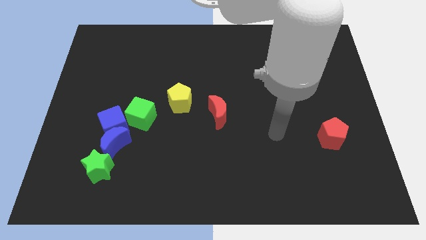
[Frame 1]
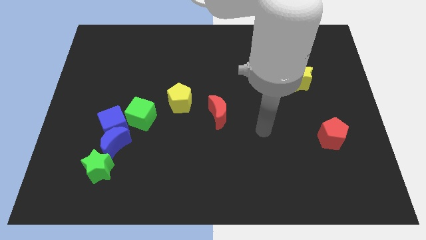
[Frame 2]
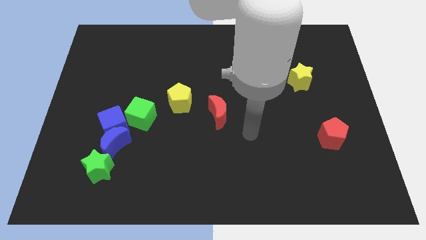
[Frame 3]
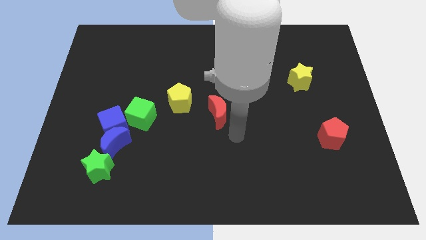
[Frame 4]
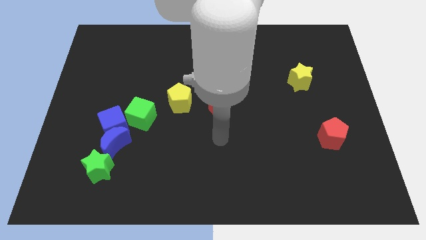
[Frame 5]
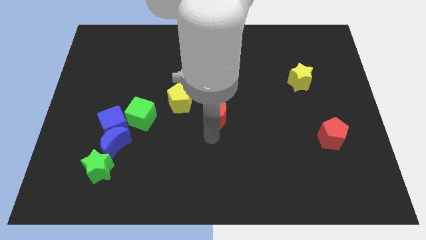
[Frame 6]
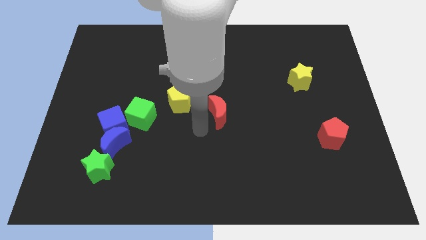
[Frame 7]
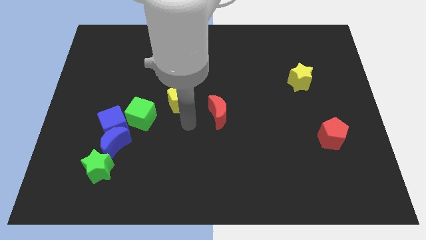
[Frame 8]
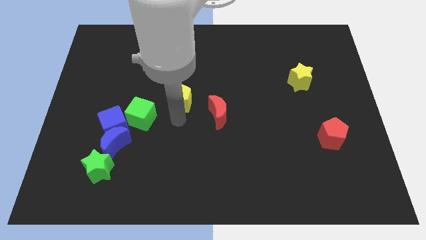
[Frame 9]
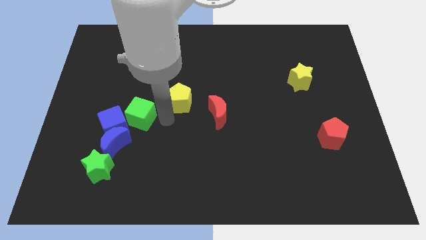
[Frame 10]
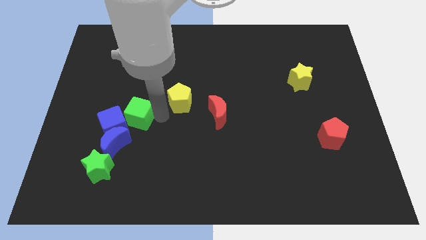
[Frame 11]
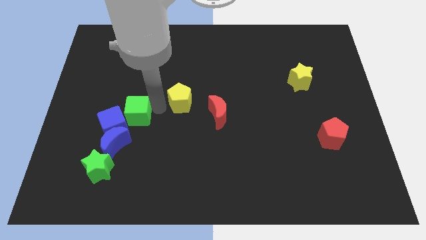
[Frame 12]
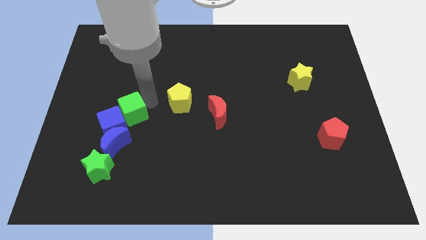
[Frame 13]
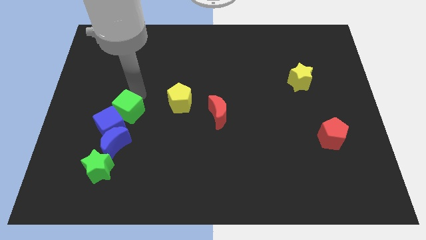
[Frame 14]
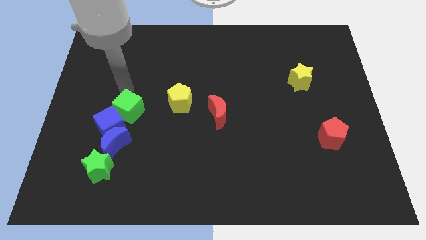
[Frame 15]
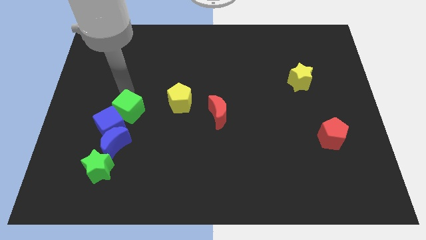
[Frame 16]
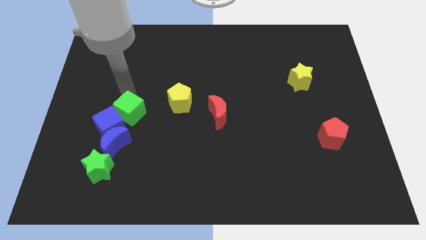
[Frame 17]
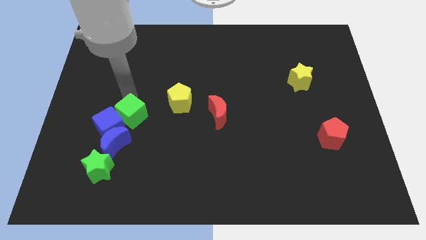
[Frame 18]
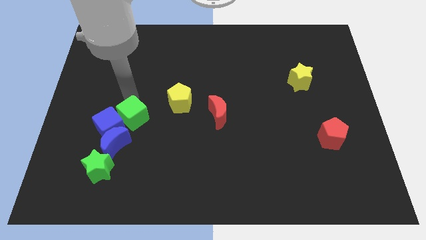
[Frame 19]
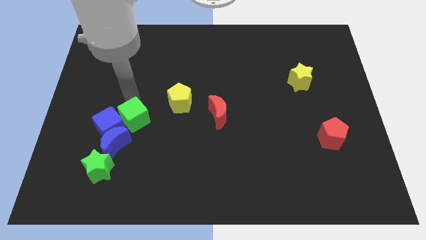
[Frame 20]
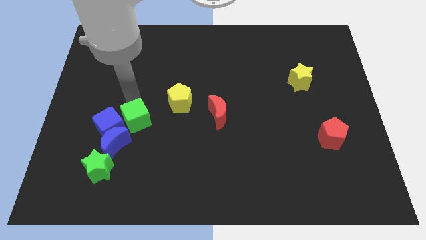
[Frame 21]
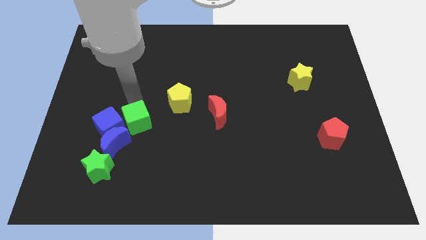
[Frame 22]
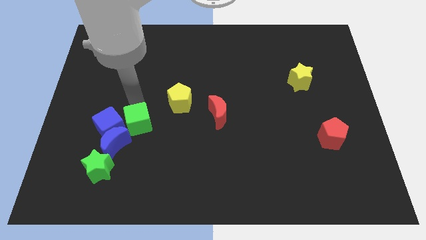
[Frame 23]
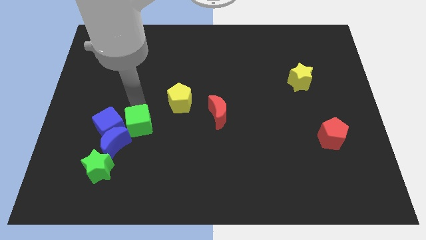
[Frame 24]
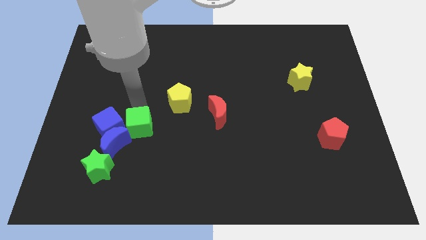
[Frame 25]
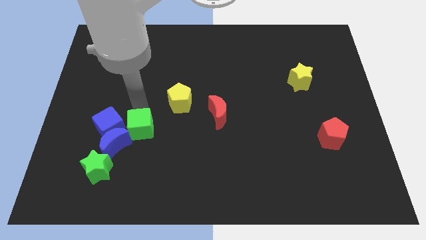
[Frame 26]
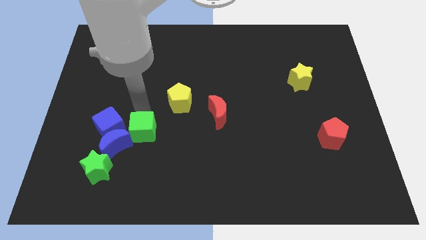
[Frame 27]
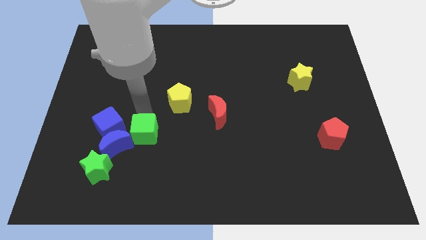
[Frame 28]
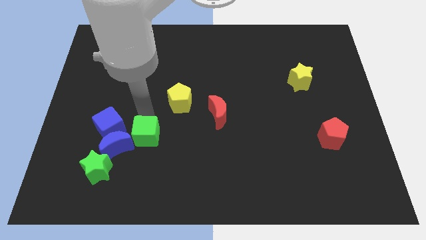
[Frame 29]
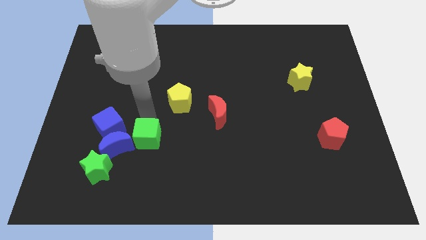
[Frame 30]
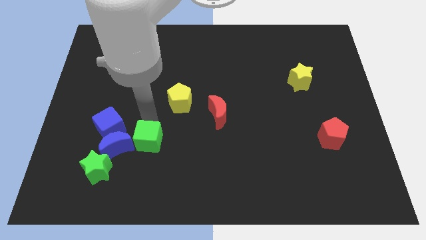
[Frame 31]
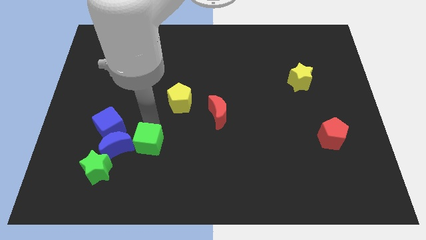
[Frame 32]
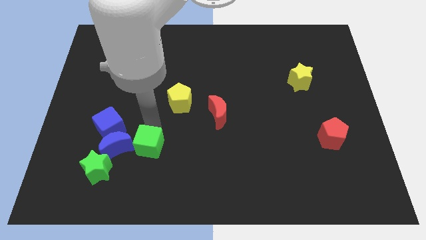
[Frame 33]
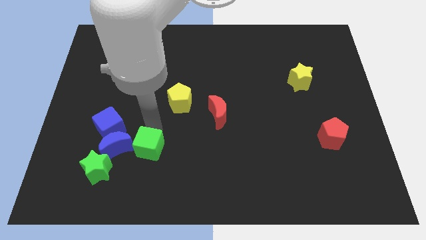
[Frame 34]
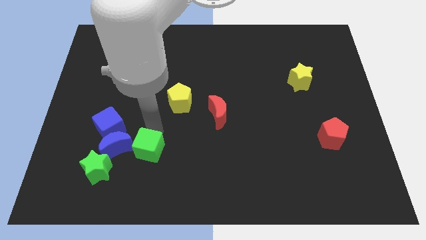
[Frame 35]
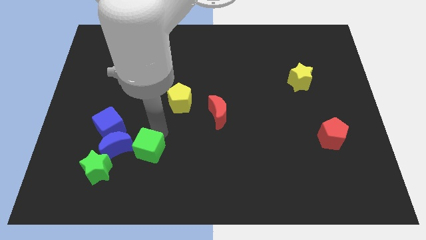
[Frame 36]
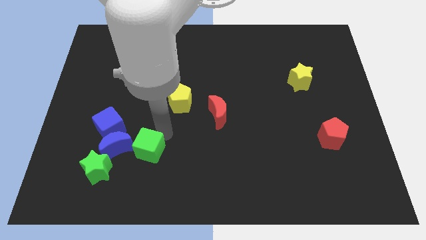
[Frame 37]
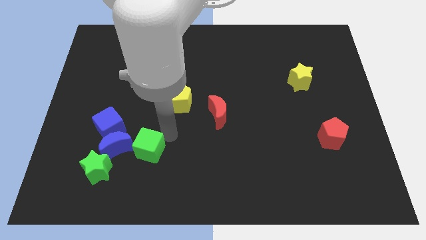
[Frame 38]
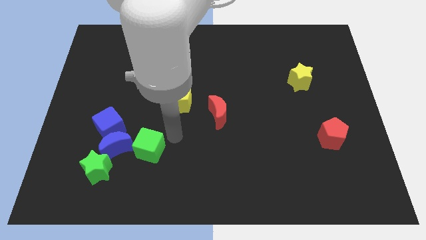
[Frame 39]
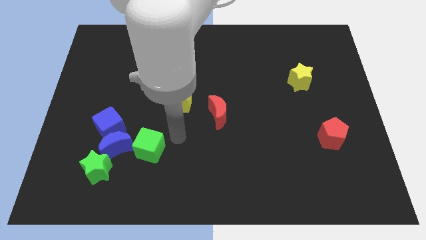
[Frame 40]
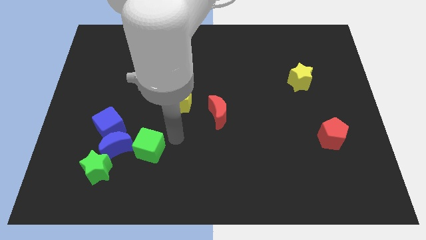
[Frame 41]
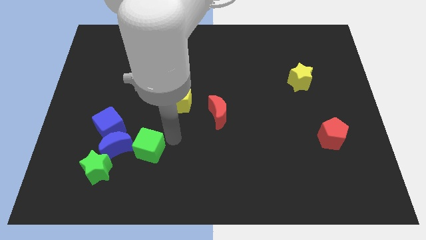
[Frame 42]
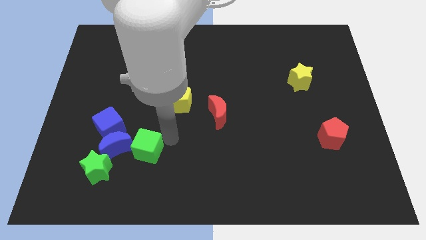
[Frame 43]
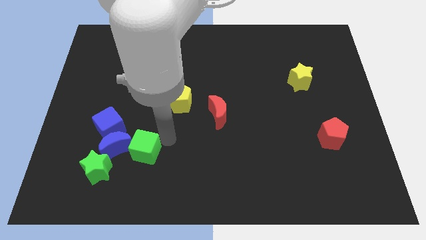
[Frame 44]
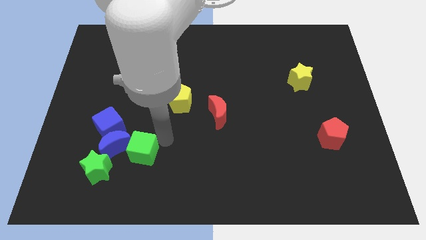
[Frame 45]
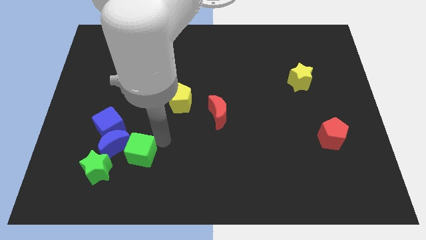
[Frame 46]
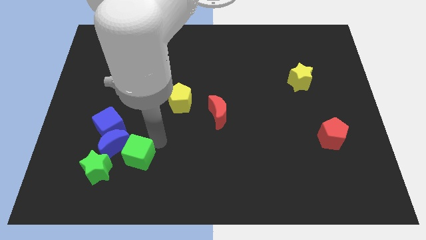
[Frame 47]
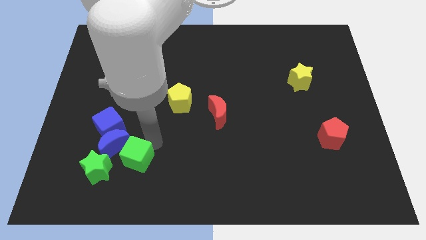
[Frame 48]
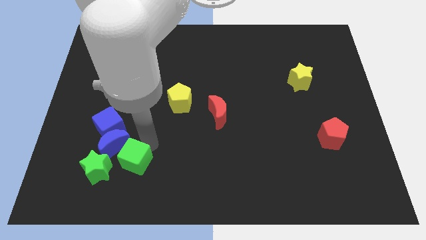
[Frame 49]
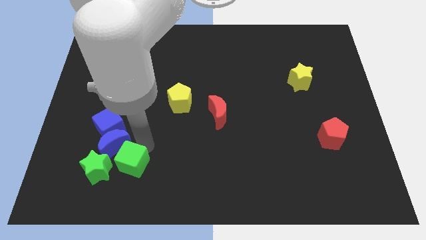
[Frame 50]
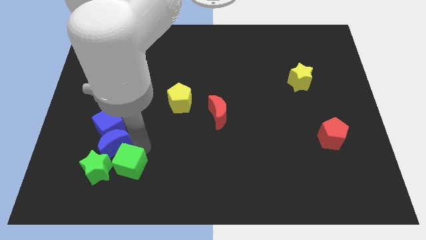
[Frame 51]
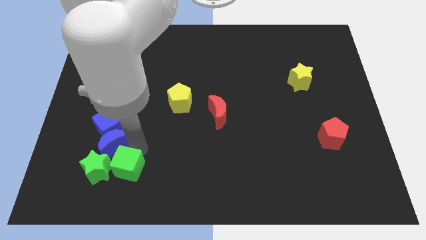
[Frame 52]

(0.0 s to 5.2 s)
put the green cube next to the green star

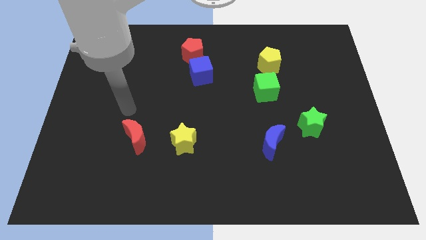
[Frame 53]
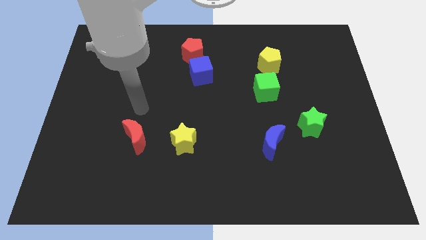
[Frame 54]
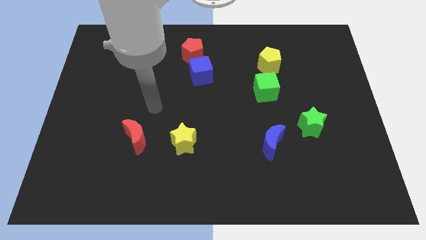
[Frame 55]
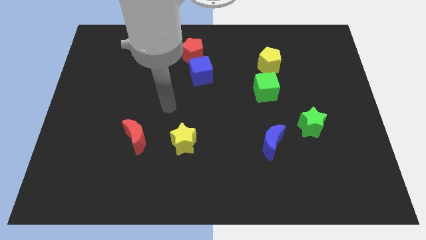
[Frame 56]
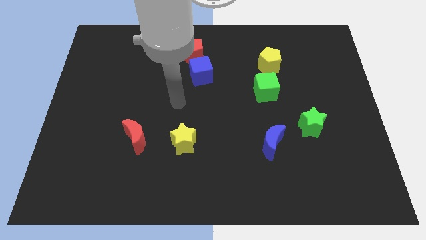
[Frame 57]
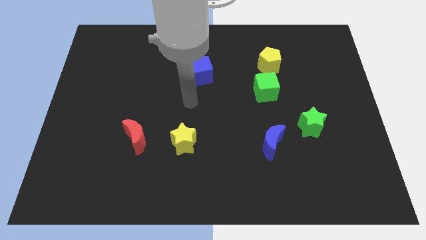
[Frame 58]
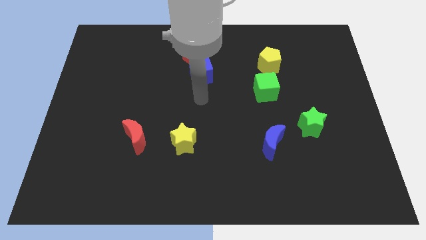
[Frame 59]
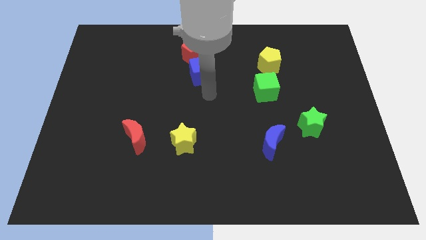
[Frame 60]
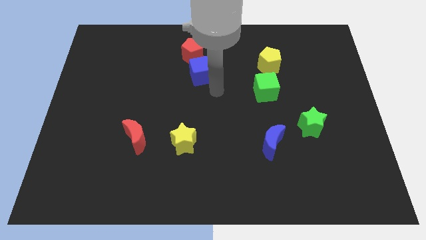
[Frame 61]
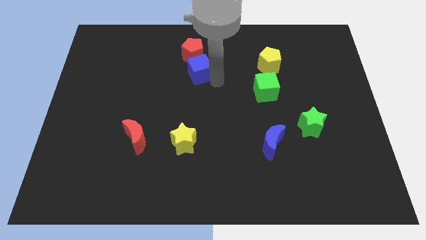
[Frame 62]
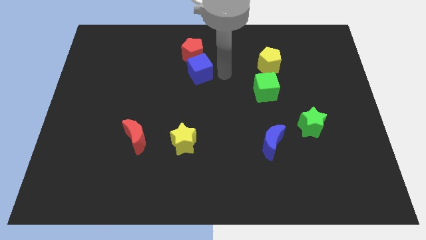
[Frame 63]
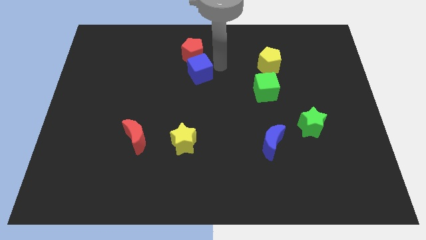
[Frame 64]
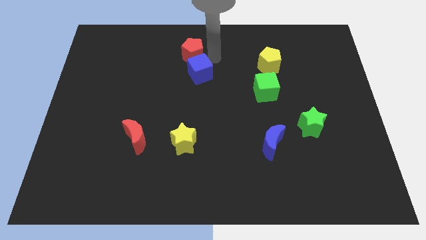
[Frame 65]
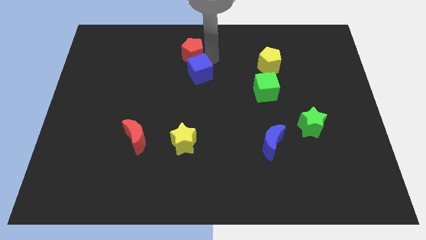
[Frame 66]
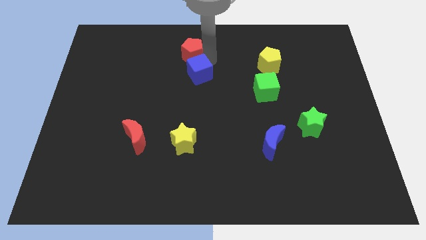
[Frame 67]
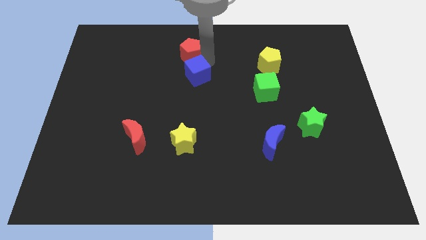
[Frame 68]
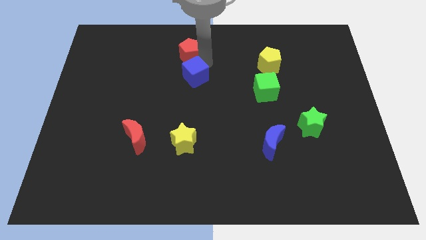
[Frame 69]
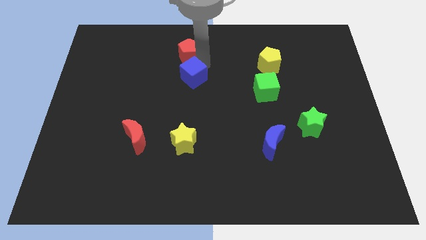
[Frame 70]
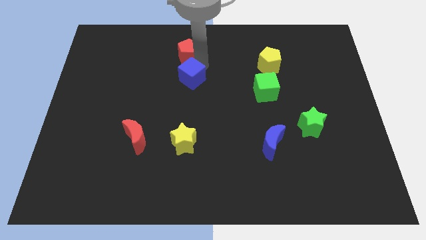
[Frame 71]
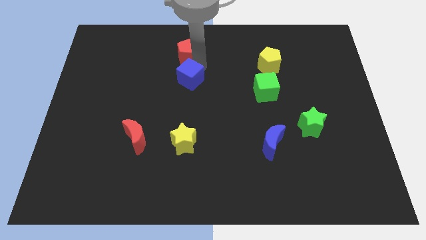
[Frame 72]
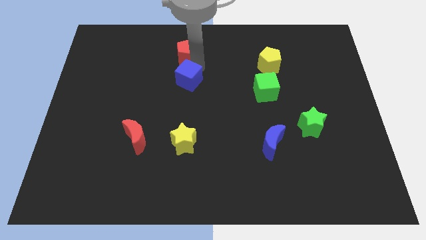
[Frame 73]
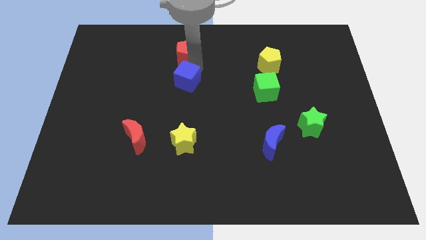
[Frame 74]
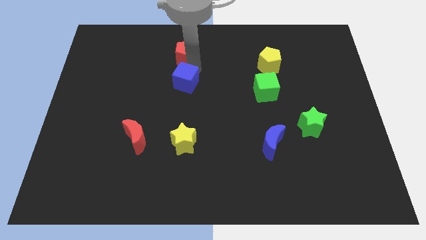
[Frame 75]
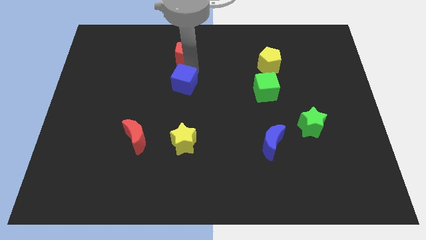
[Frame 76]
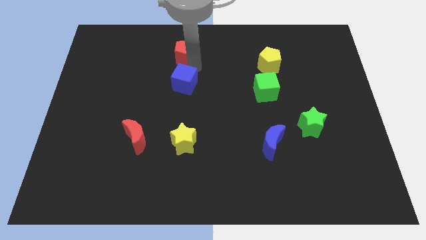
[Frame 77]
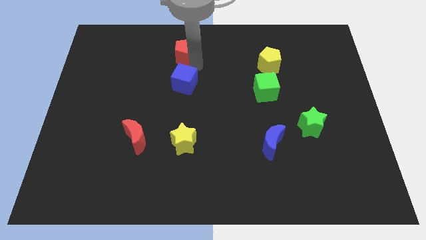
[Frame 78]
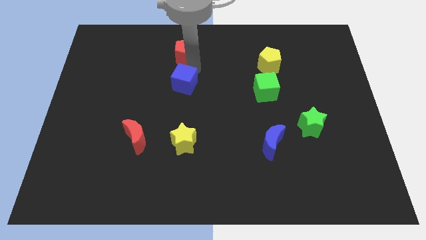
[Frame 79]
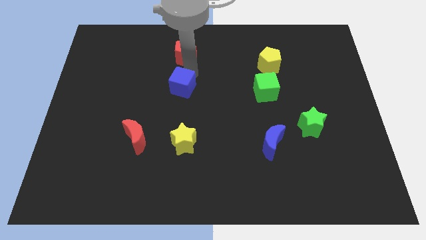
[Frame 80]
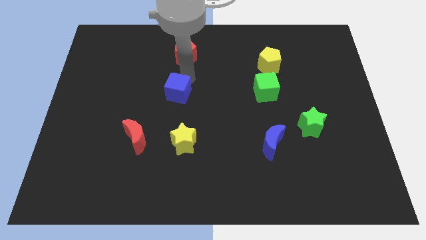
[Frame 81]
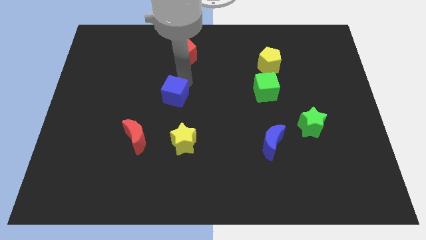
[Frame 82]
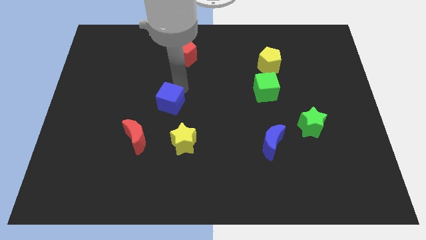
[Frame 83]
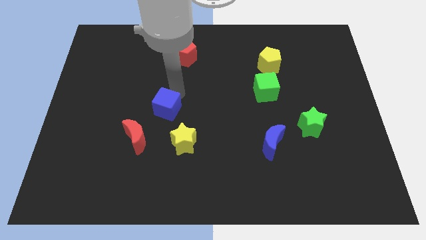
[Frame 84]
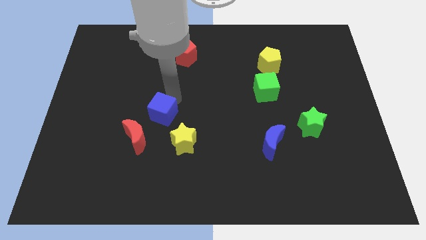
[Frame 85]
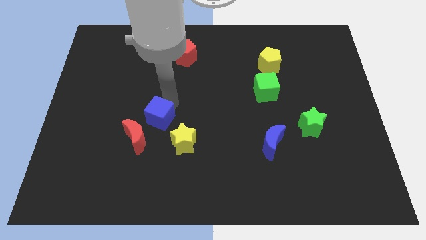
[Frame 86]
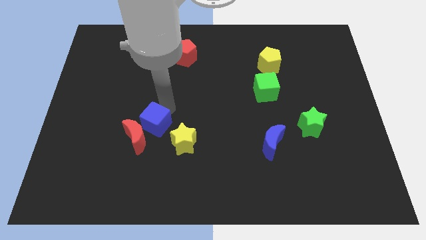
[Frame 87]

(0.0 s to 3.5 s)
push the blue cube to the red moon
